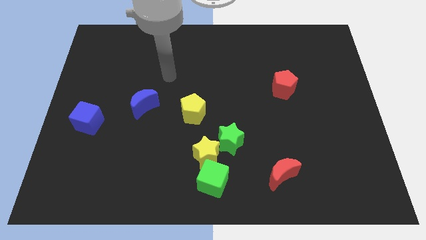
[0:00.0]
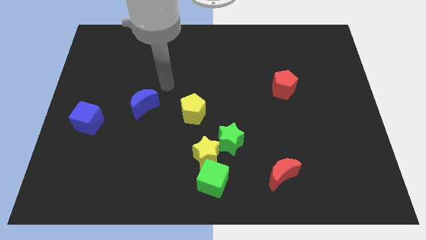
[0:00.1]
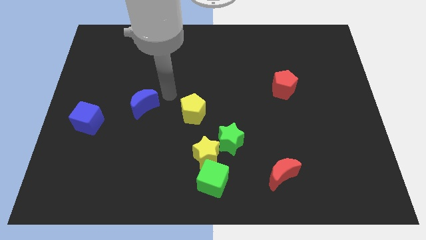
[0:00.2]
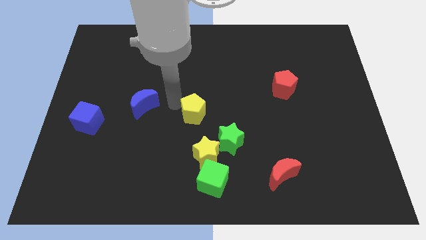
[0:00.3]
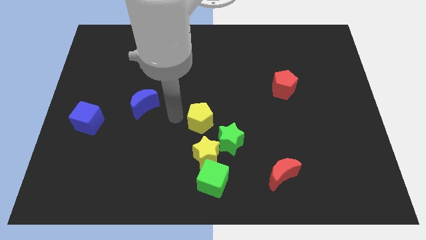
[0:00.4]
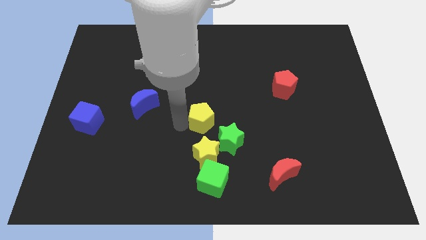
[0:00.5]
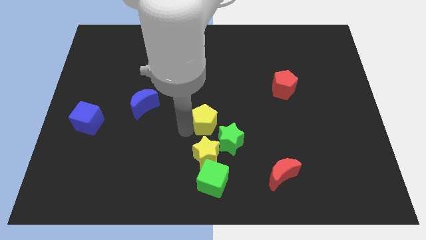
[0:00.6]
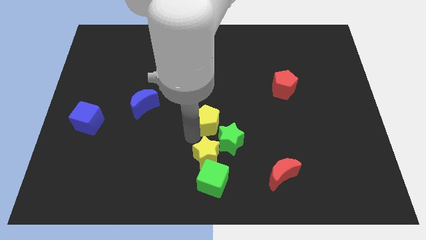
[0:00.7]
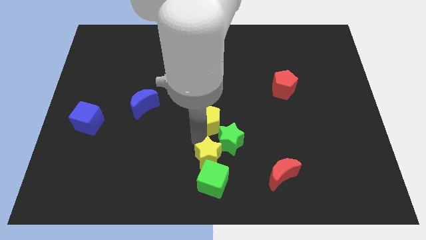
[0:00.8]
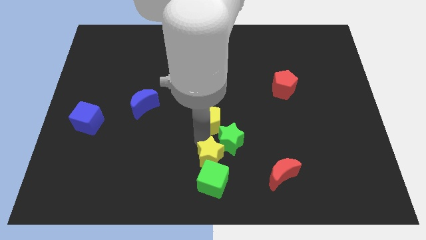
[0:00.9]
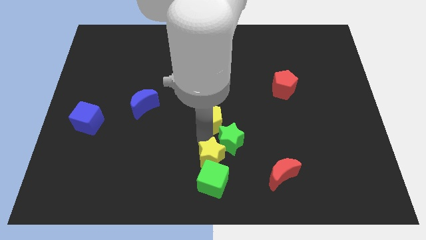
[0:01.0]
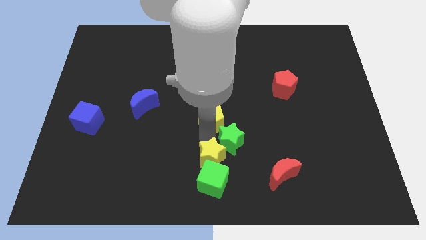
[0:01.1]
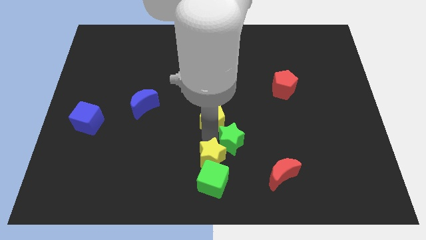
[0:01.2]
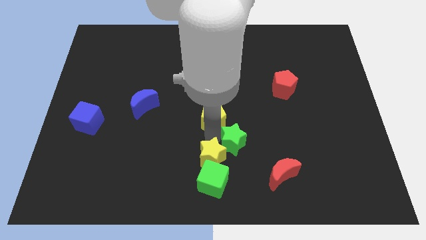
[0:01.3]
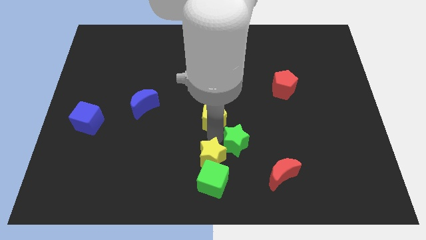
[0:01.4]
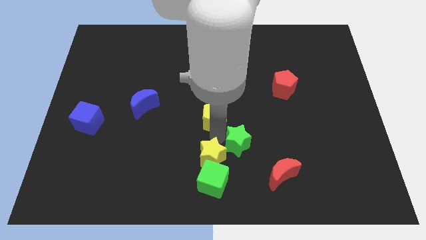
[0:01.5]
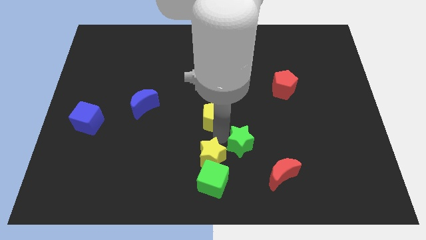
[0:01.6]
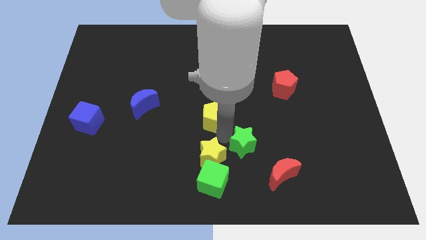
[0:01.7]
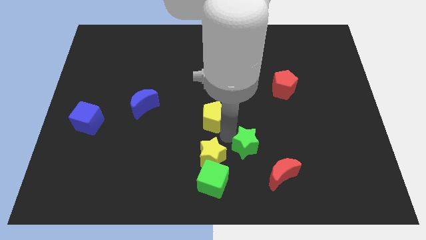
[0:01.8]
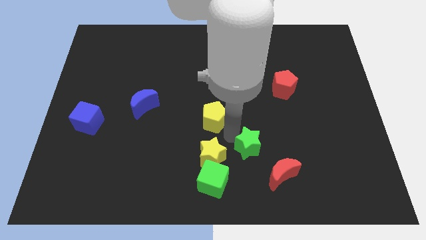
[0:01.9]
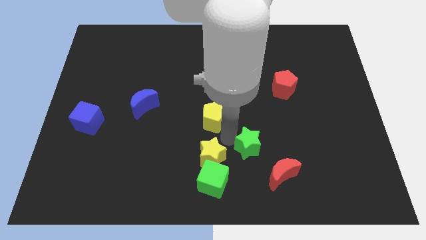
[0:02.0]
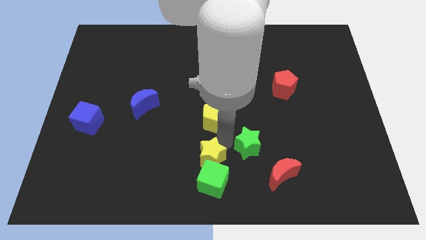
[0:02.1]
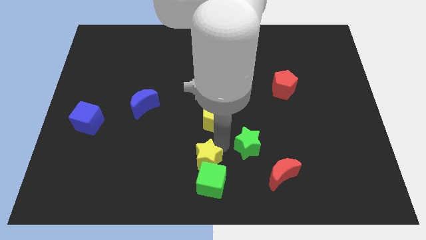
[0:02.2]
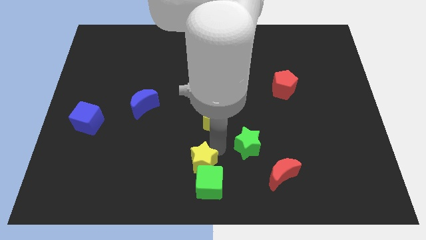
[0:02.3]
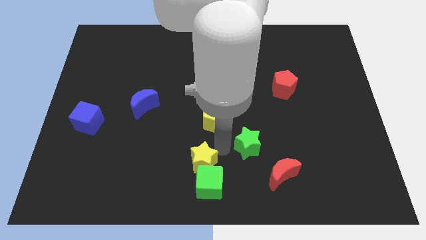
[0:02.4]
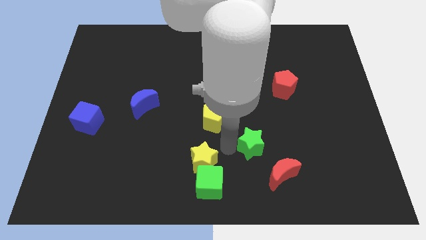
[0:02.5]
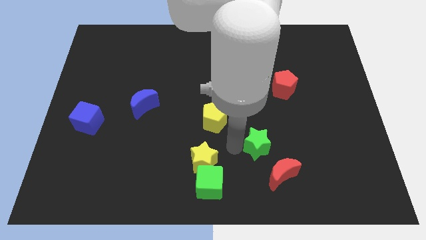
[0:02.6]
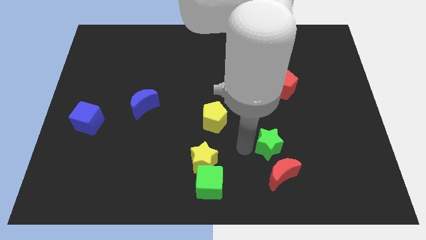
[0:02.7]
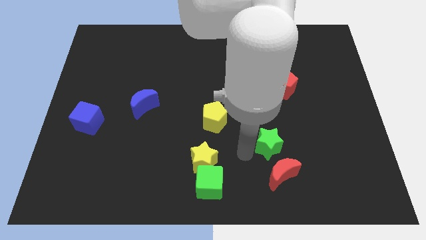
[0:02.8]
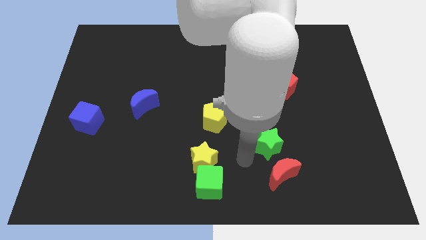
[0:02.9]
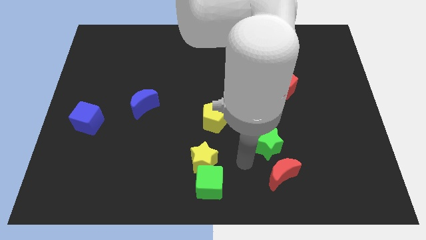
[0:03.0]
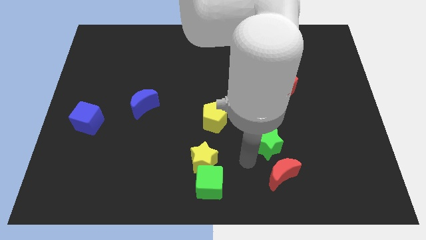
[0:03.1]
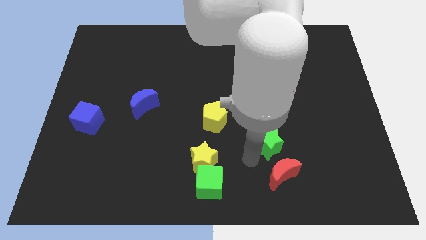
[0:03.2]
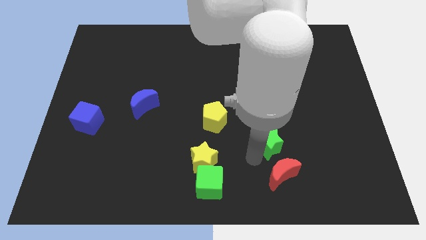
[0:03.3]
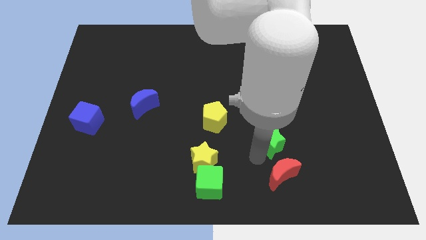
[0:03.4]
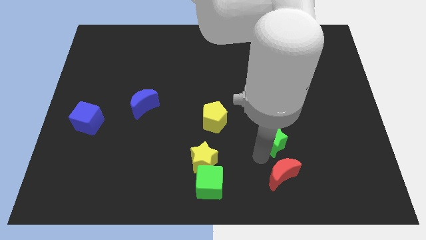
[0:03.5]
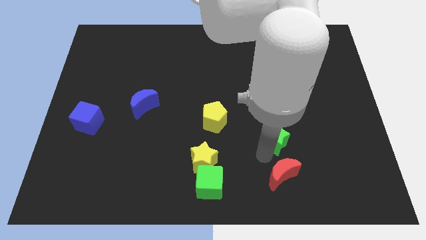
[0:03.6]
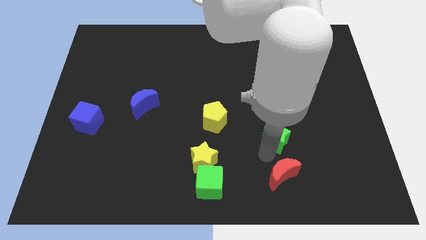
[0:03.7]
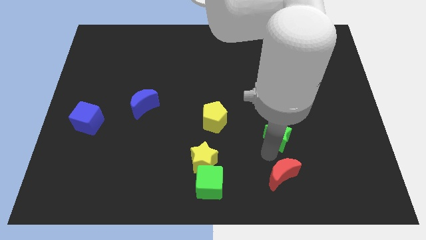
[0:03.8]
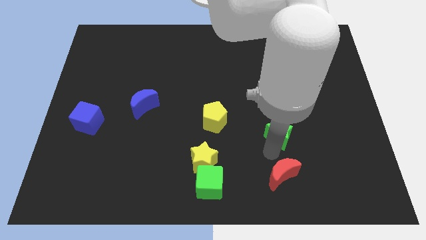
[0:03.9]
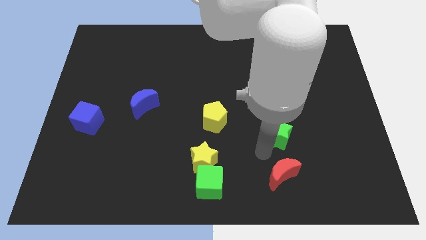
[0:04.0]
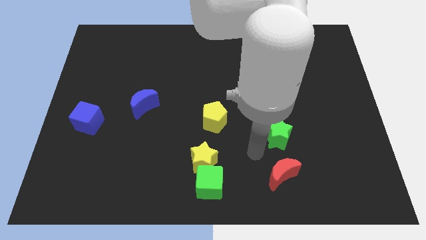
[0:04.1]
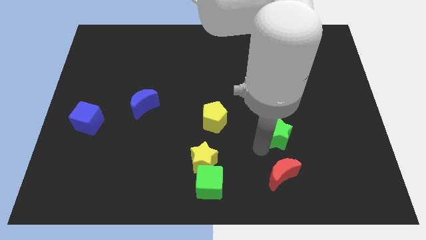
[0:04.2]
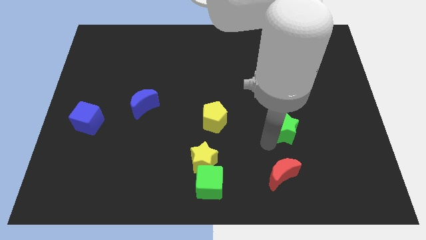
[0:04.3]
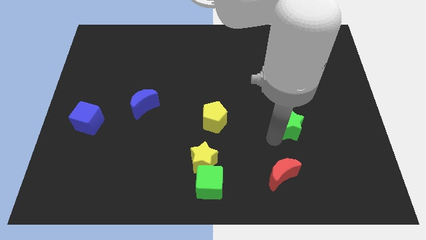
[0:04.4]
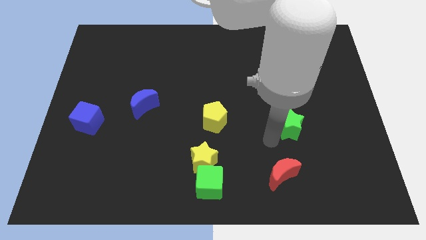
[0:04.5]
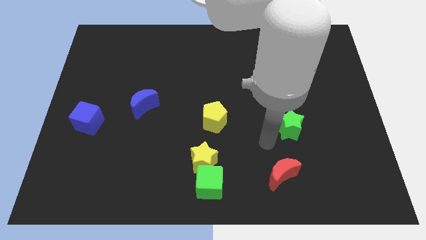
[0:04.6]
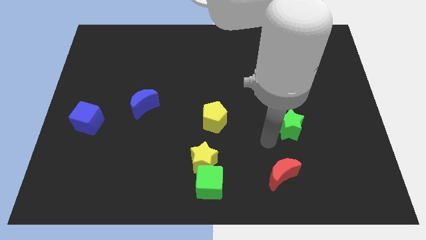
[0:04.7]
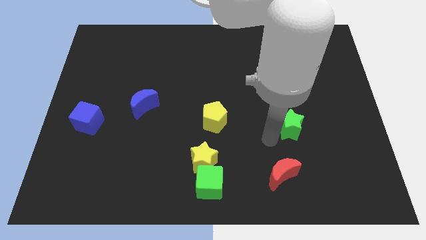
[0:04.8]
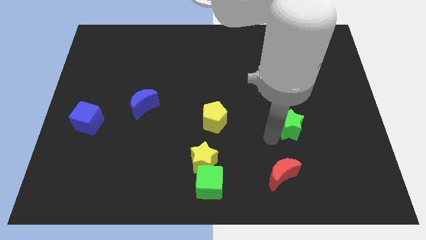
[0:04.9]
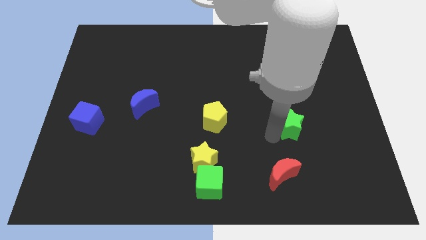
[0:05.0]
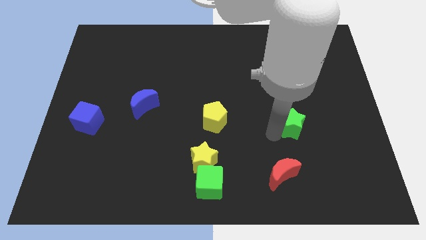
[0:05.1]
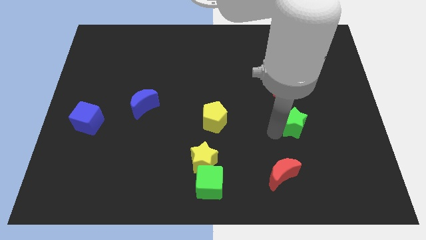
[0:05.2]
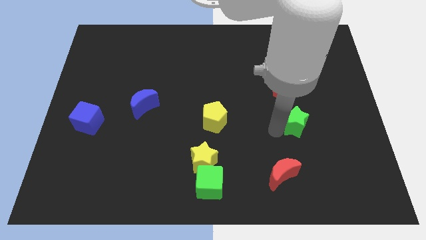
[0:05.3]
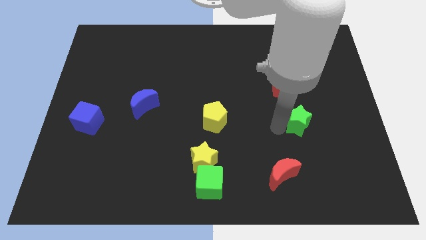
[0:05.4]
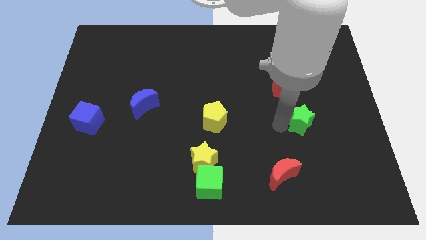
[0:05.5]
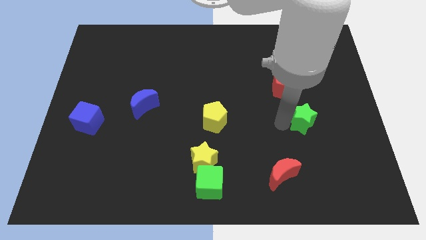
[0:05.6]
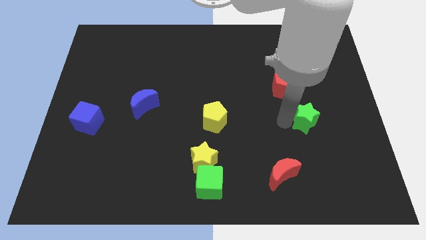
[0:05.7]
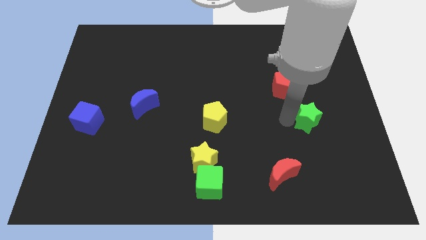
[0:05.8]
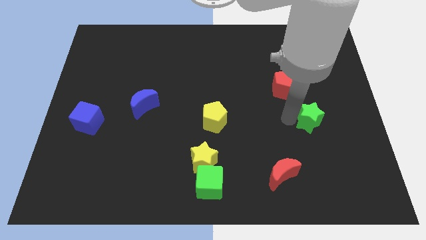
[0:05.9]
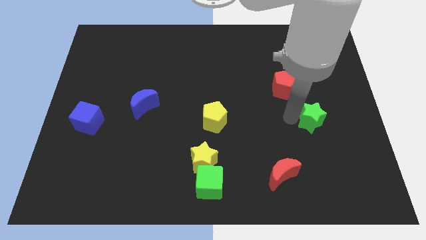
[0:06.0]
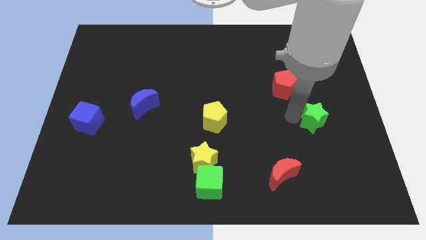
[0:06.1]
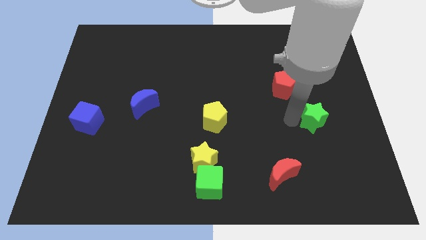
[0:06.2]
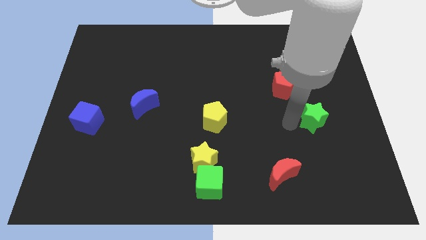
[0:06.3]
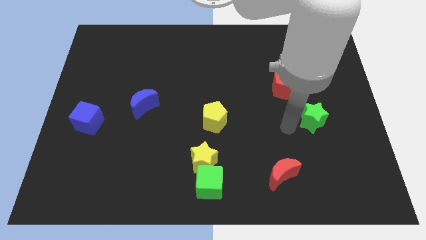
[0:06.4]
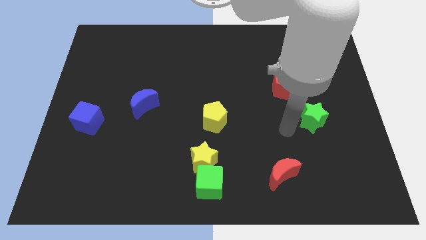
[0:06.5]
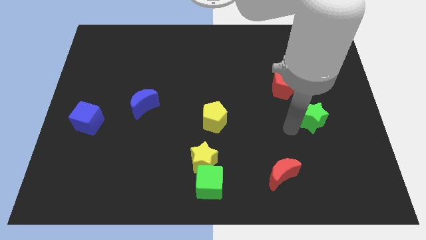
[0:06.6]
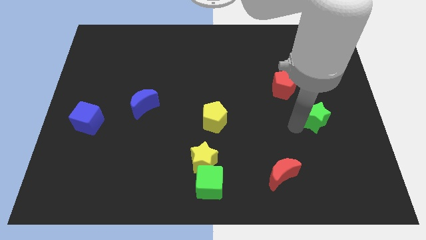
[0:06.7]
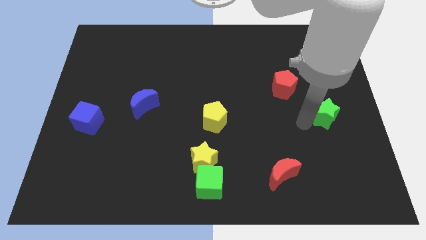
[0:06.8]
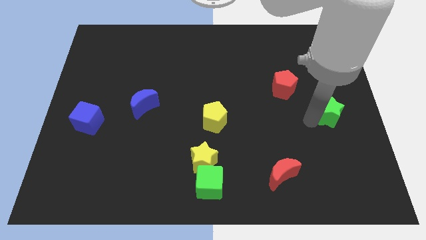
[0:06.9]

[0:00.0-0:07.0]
slide the green star to the right side
